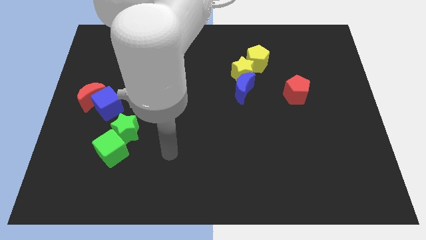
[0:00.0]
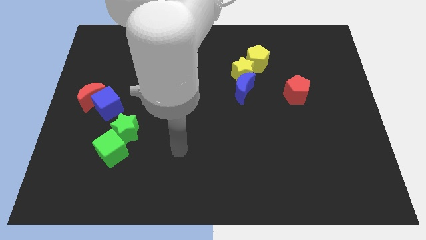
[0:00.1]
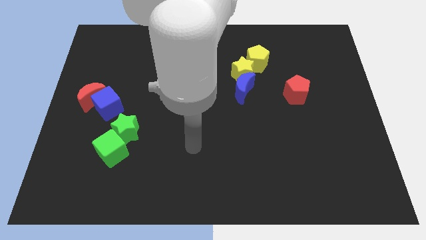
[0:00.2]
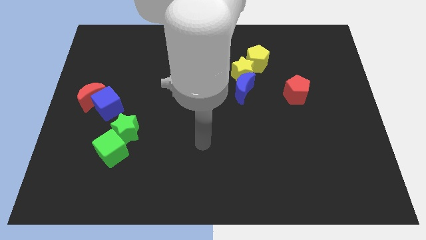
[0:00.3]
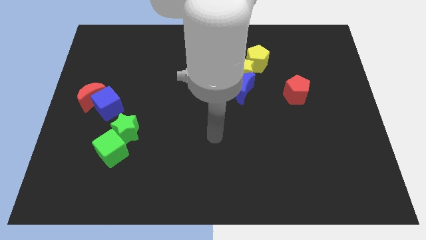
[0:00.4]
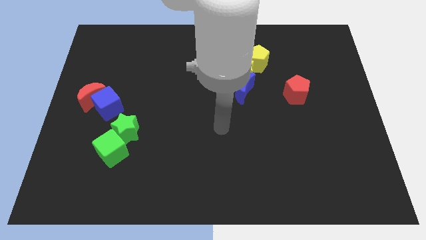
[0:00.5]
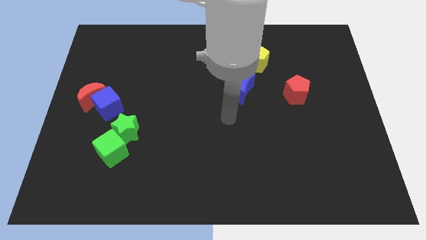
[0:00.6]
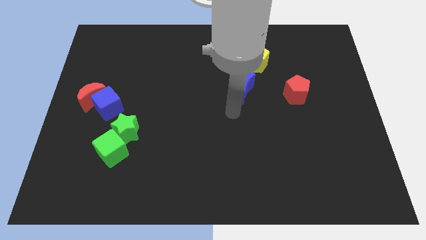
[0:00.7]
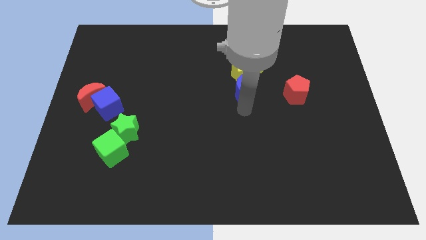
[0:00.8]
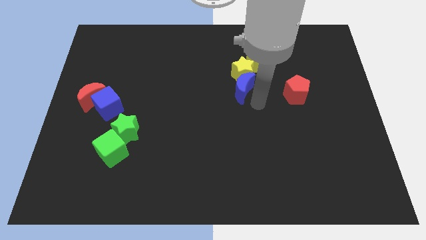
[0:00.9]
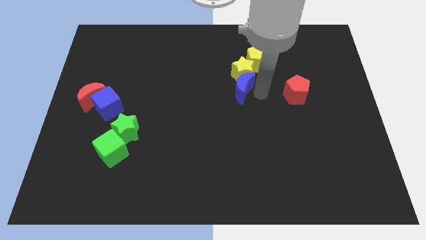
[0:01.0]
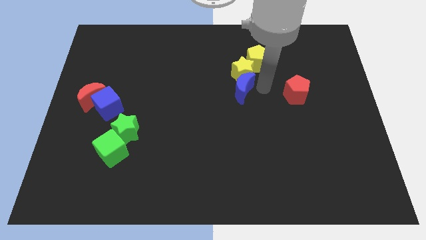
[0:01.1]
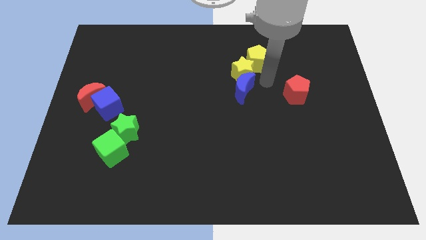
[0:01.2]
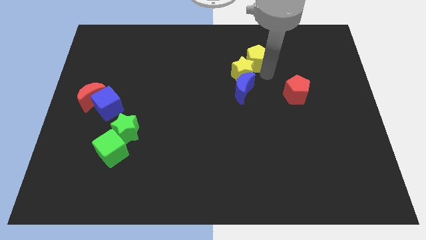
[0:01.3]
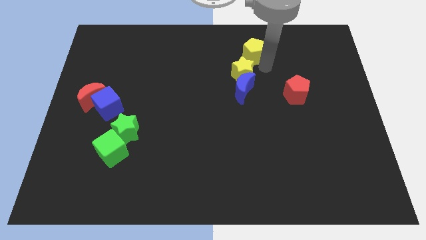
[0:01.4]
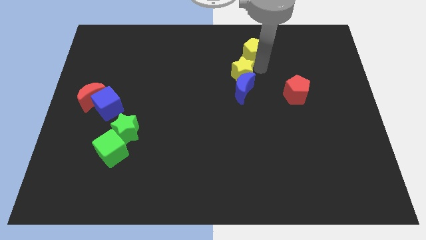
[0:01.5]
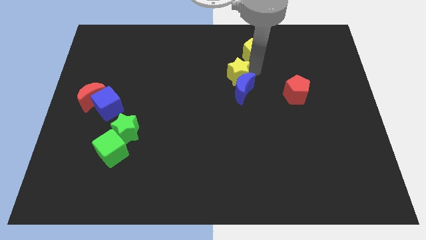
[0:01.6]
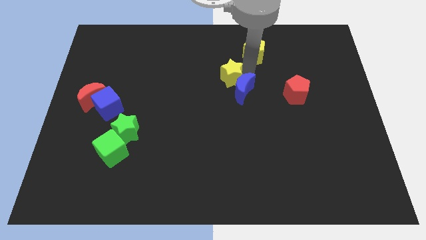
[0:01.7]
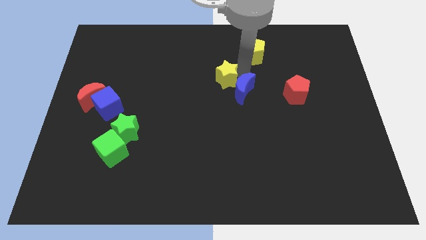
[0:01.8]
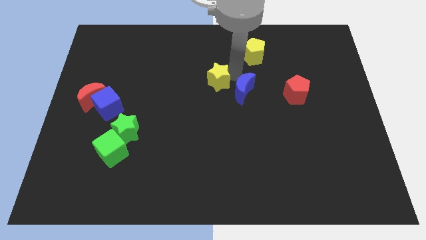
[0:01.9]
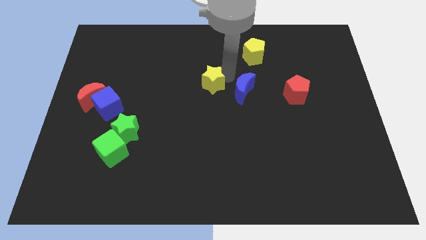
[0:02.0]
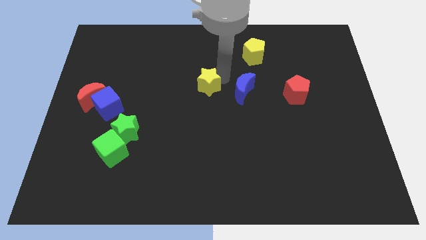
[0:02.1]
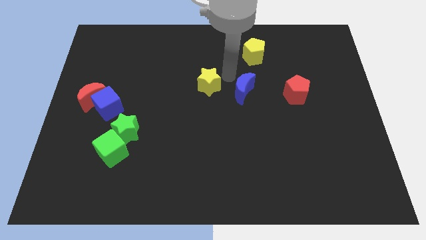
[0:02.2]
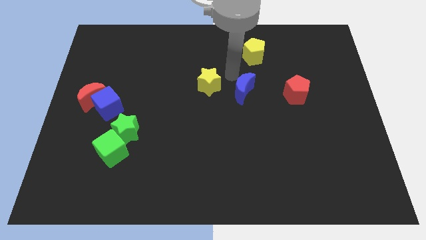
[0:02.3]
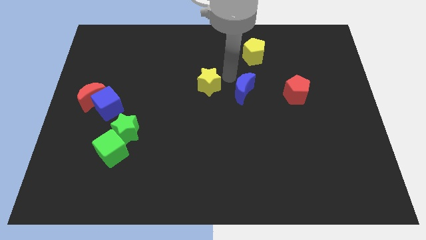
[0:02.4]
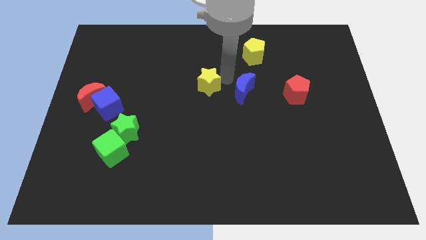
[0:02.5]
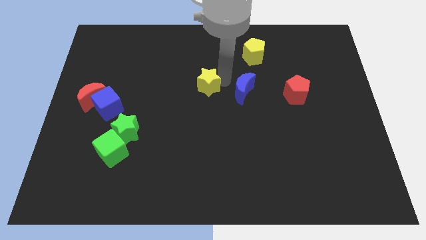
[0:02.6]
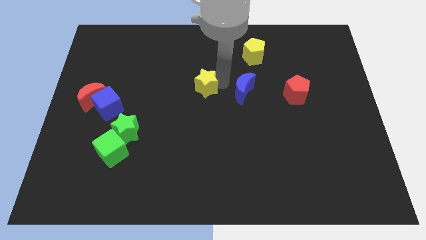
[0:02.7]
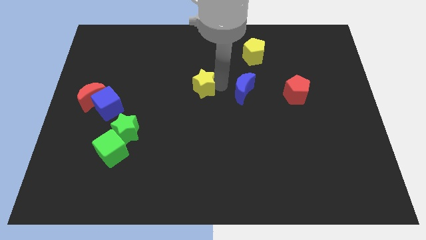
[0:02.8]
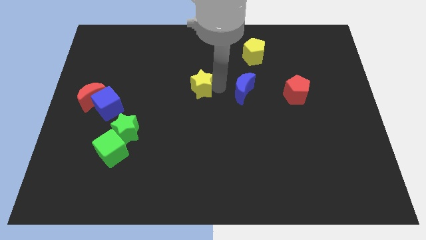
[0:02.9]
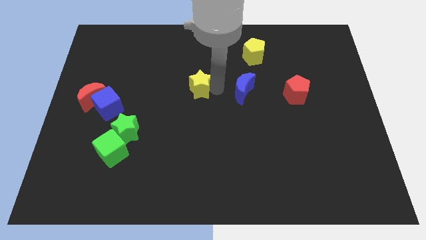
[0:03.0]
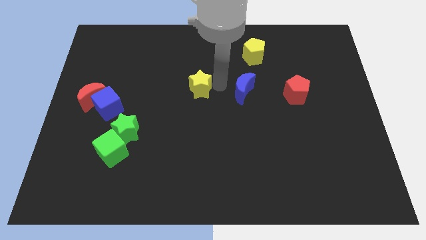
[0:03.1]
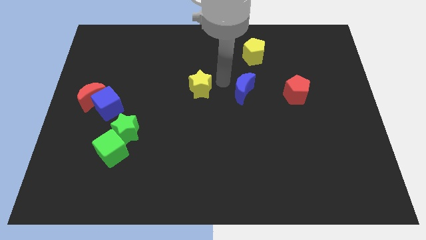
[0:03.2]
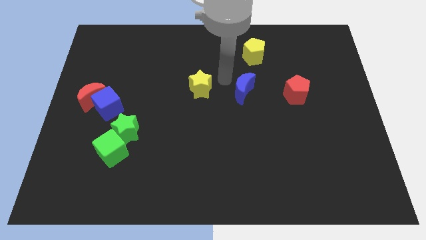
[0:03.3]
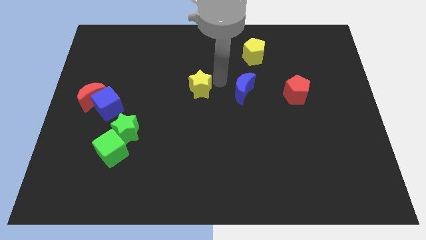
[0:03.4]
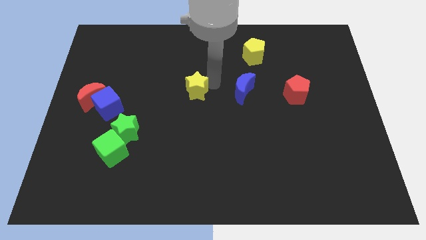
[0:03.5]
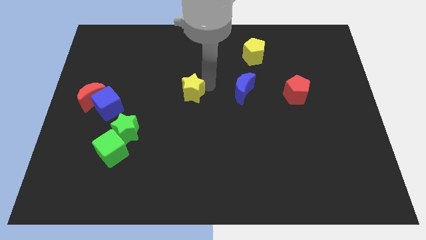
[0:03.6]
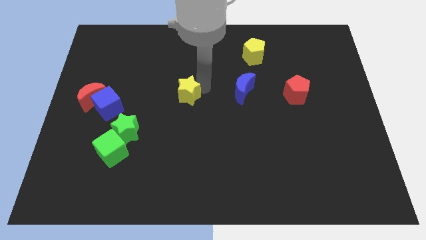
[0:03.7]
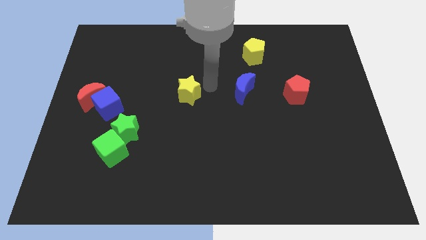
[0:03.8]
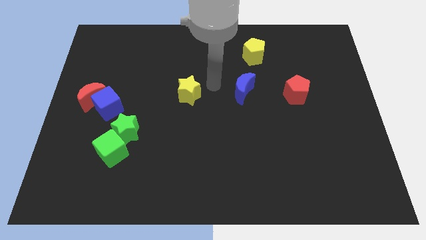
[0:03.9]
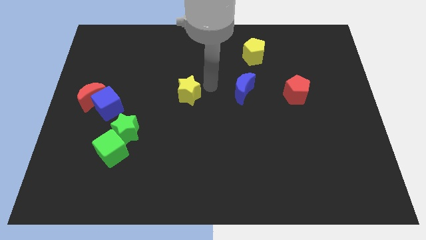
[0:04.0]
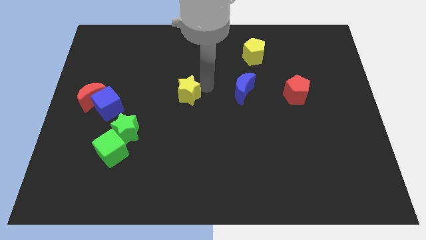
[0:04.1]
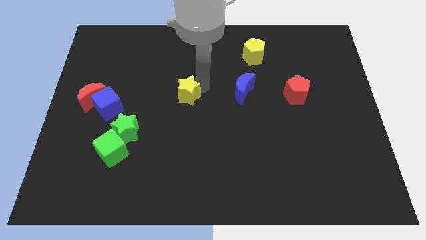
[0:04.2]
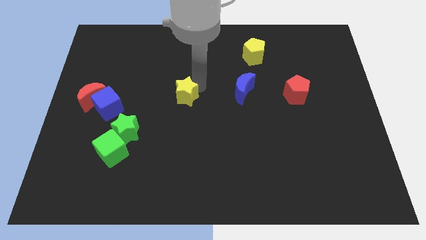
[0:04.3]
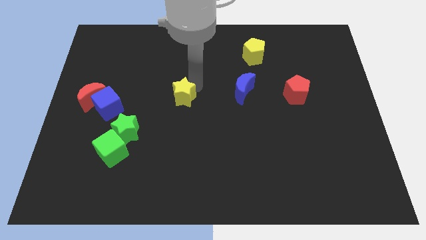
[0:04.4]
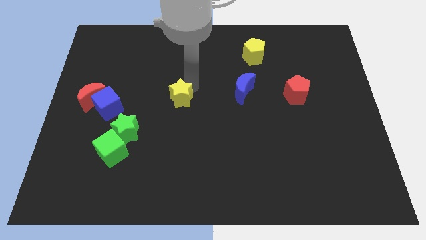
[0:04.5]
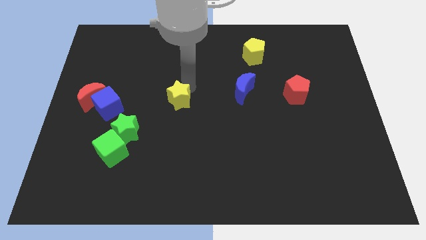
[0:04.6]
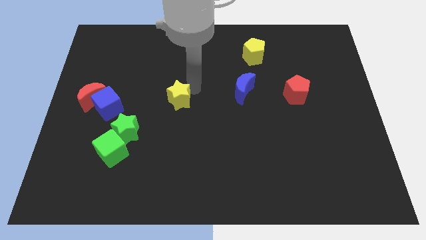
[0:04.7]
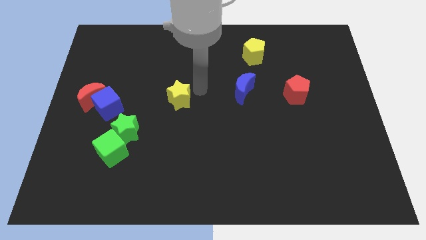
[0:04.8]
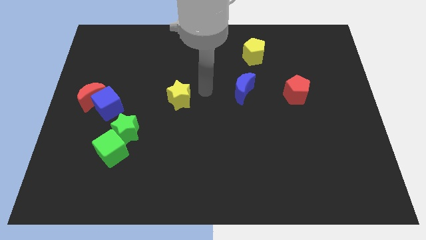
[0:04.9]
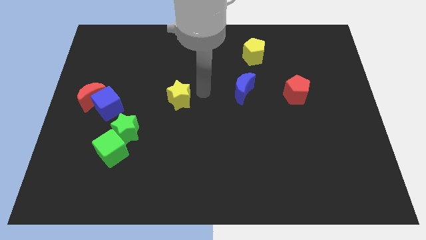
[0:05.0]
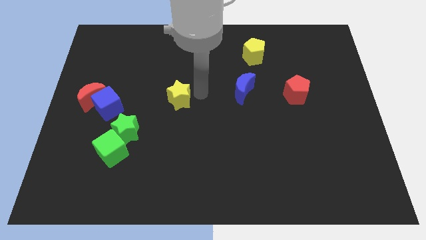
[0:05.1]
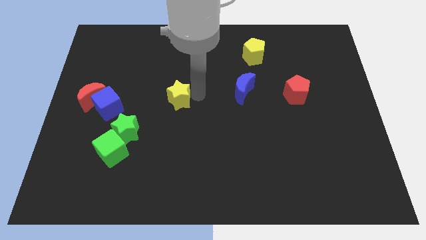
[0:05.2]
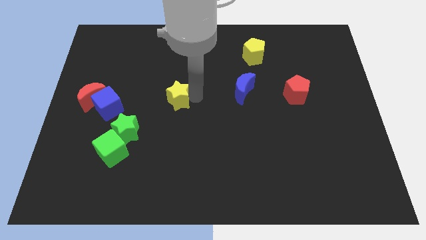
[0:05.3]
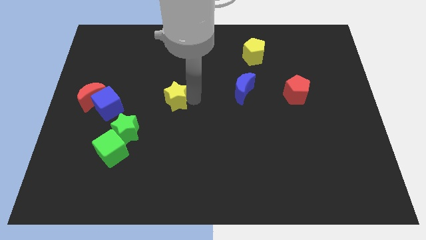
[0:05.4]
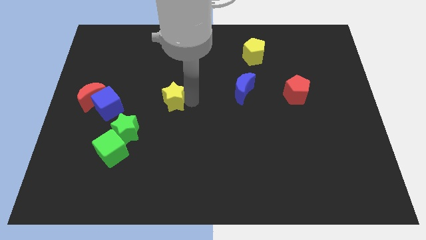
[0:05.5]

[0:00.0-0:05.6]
slide the yellow star to the right of the blue cube
